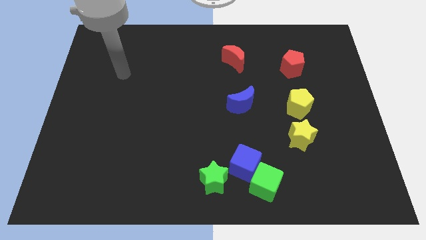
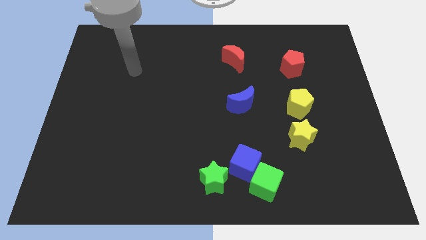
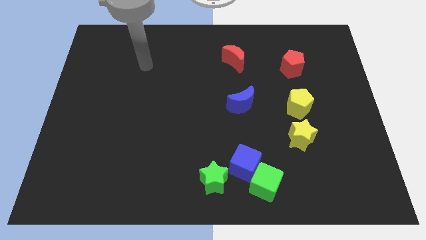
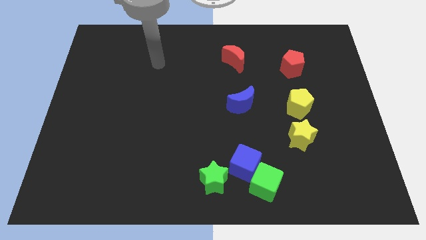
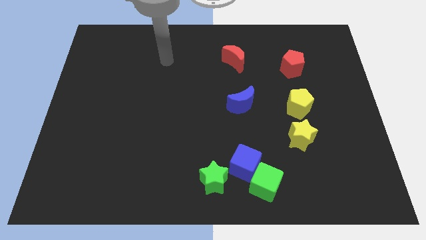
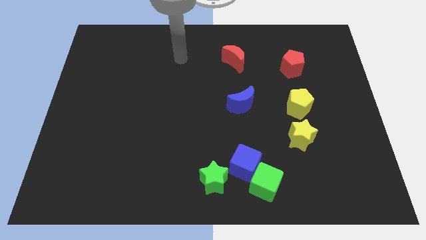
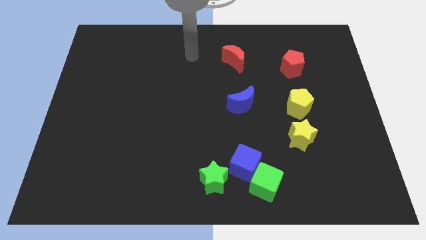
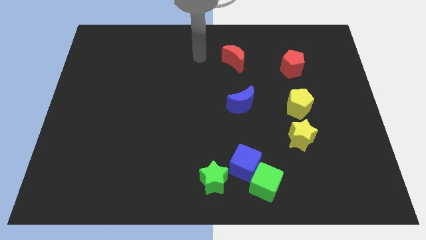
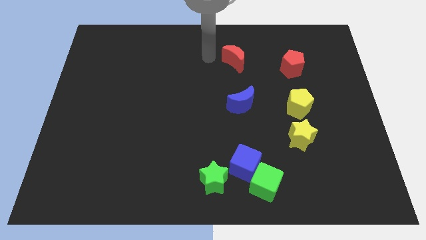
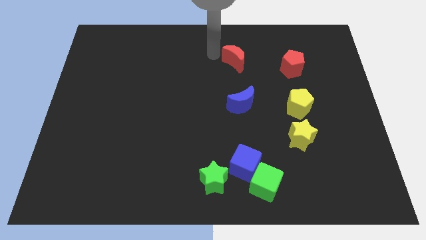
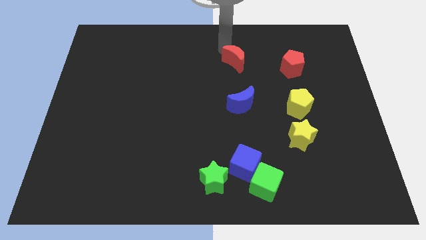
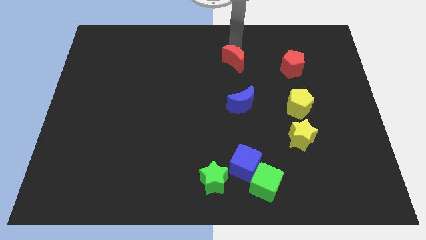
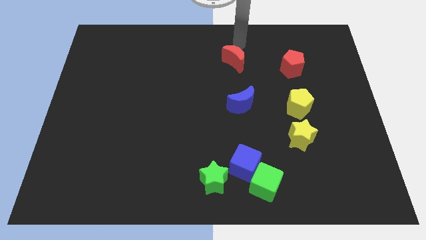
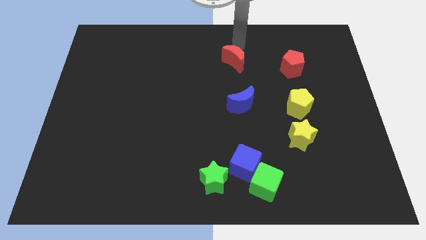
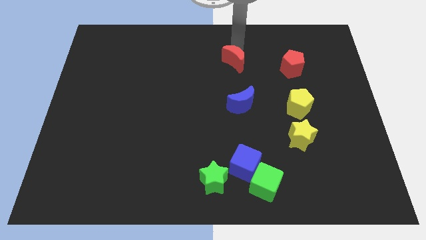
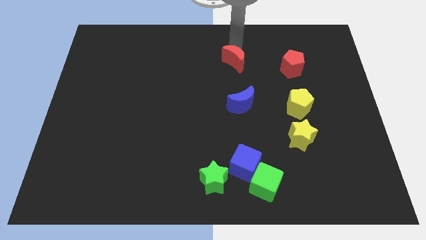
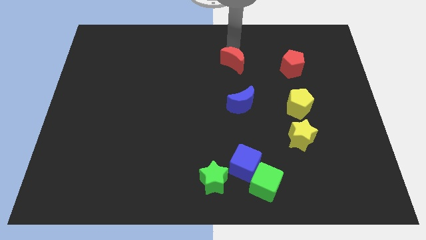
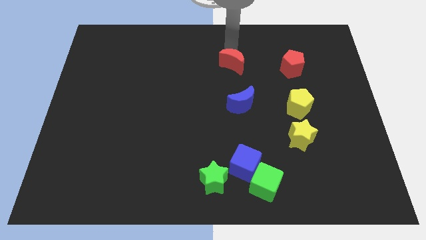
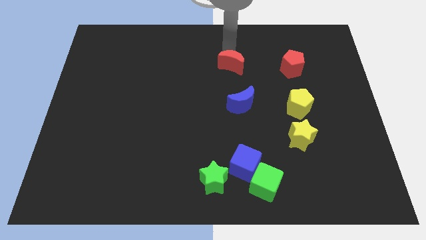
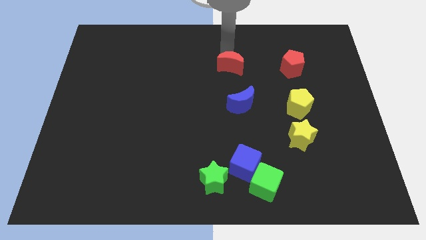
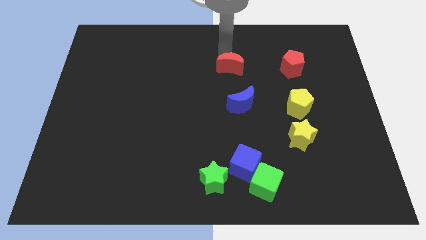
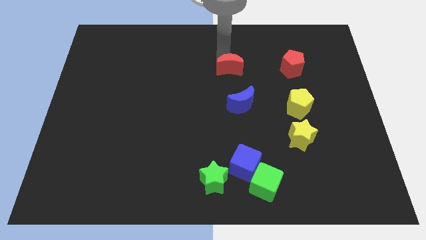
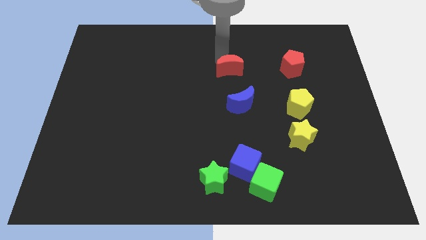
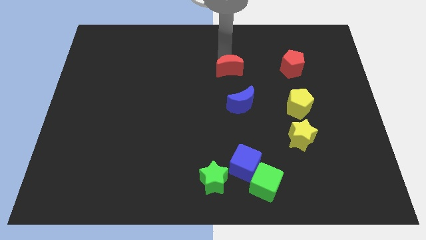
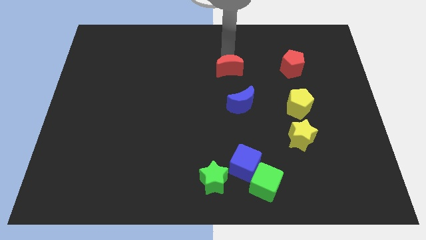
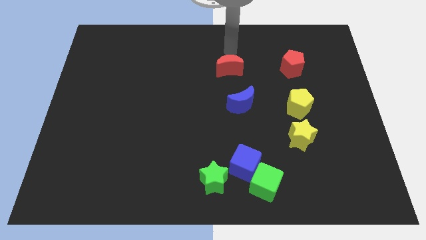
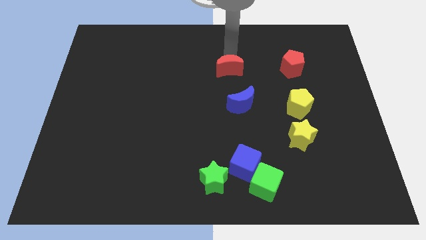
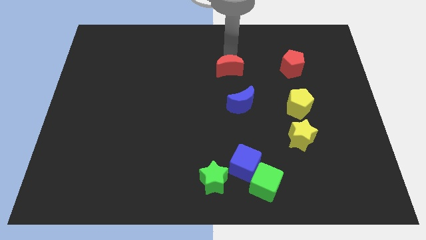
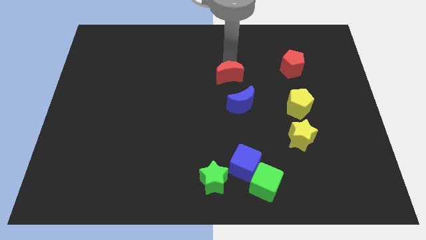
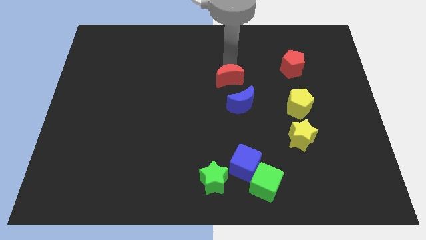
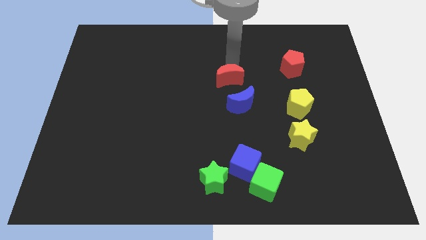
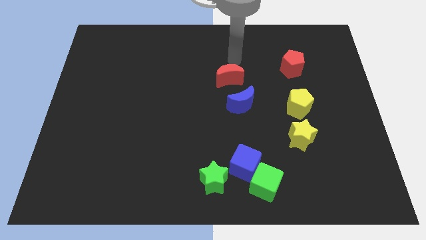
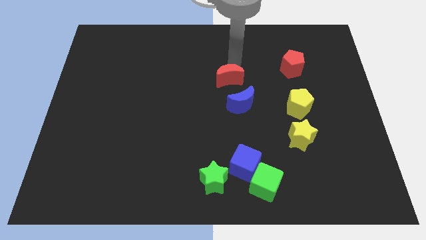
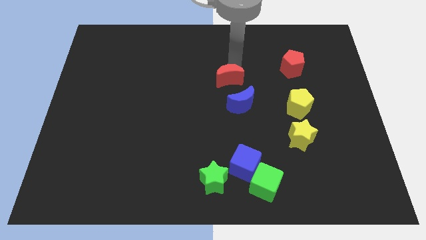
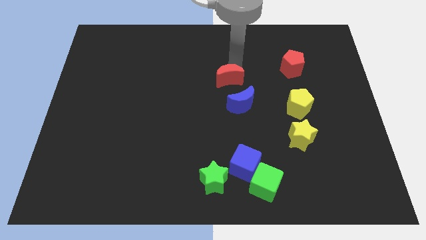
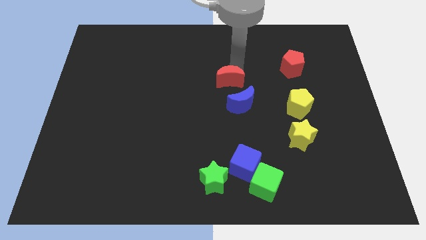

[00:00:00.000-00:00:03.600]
slightly push the red moon downwards

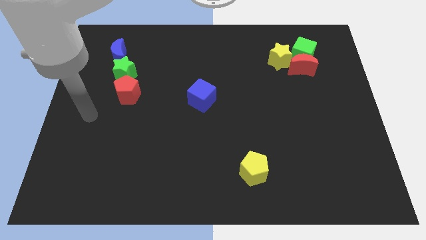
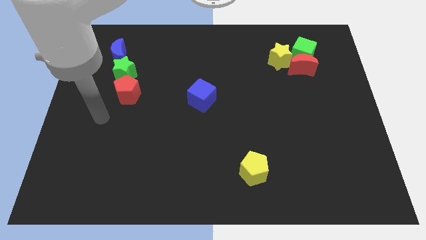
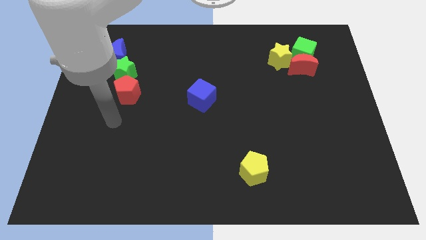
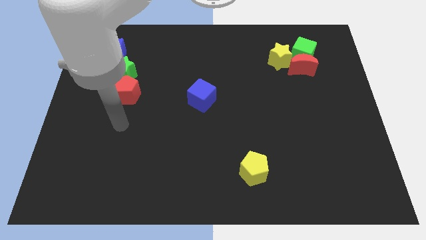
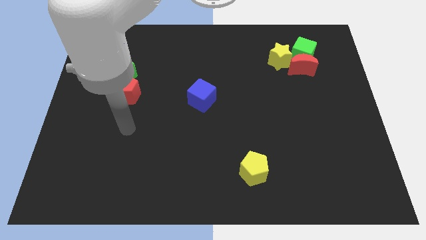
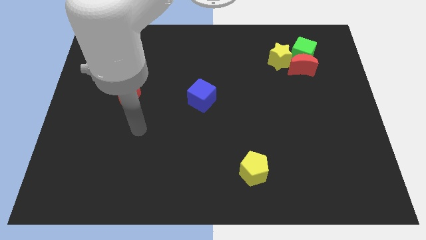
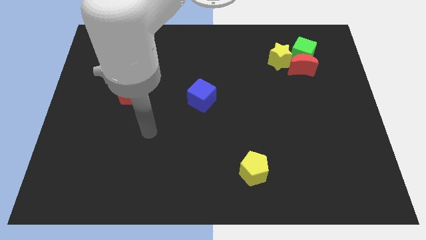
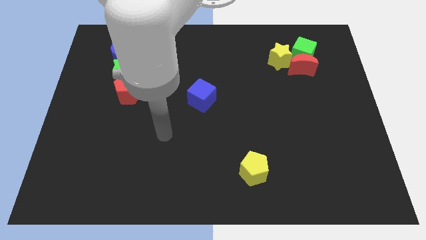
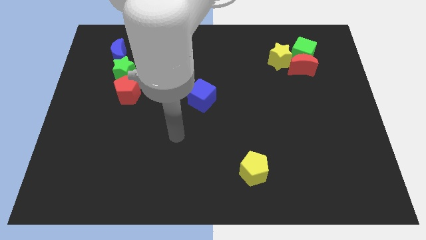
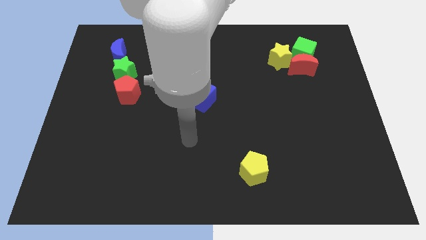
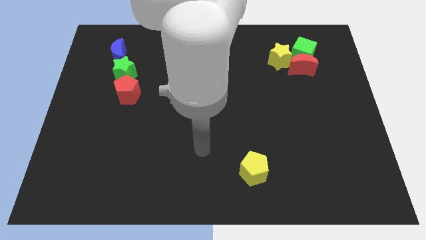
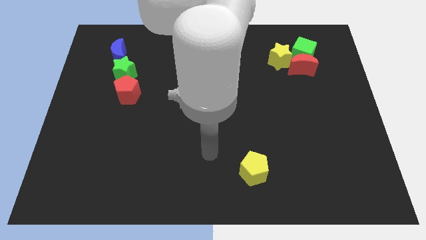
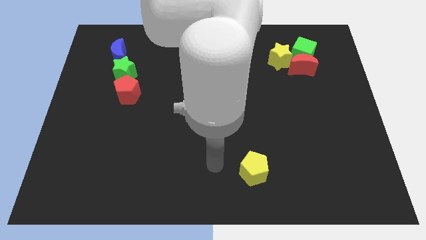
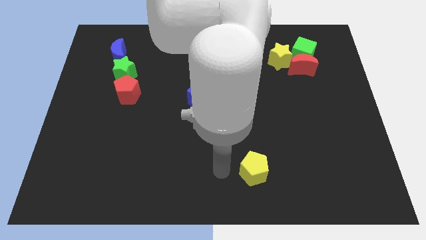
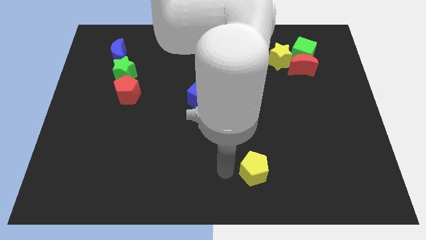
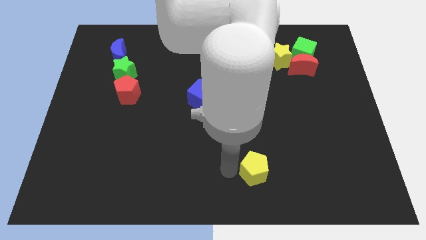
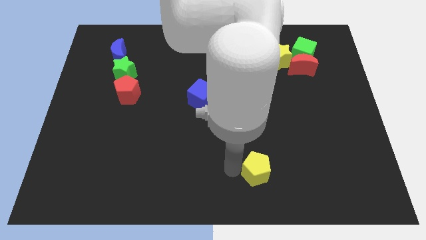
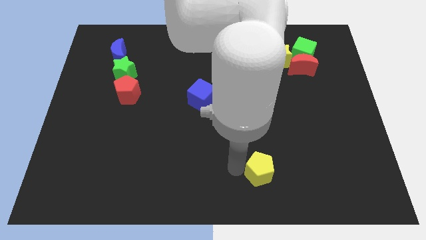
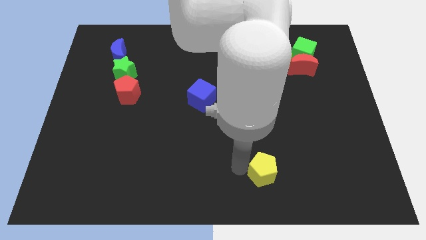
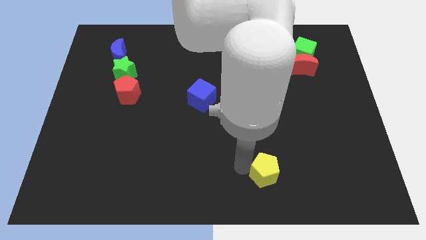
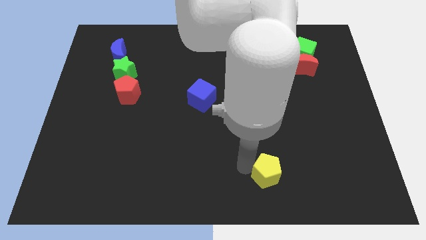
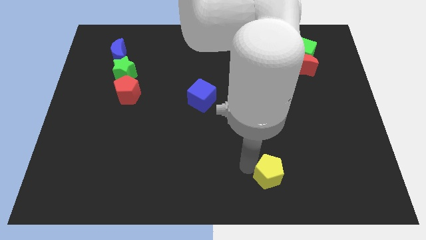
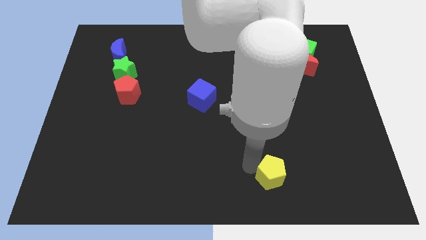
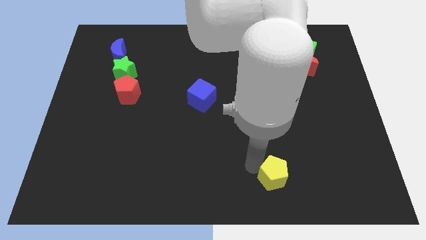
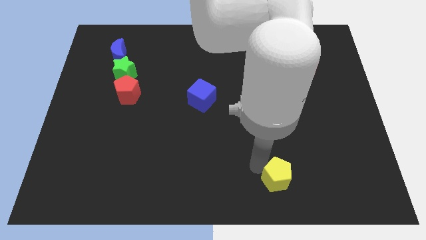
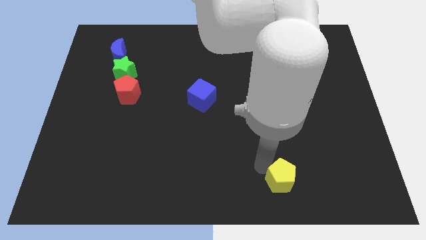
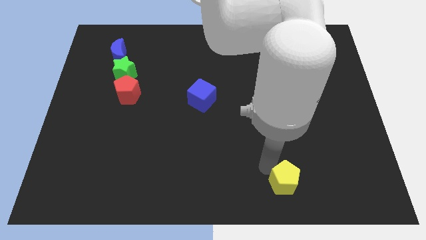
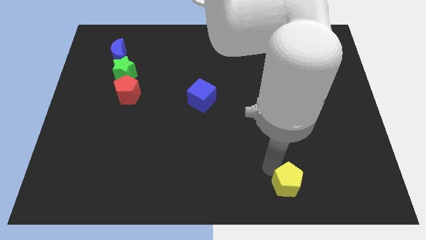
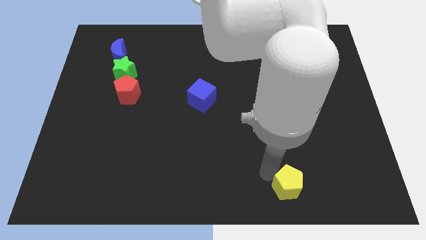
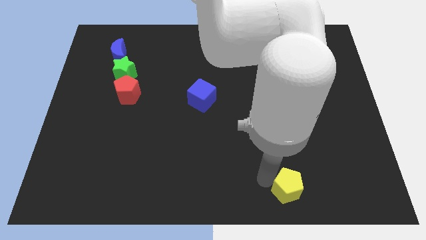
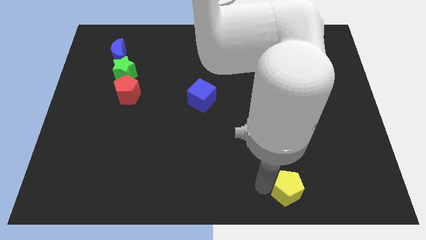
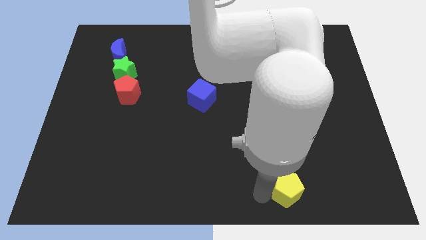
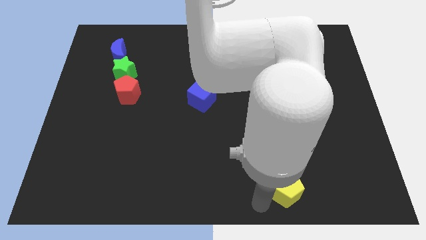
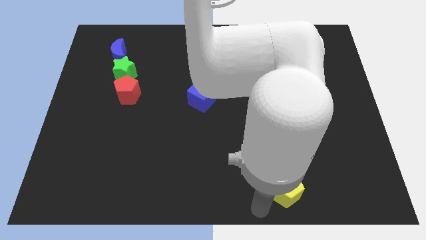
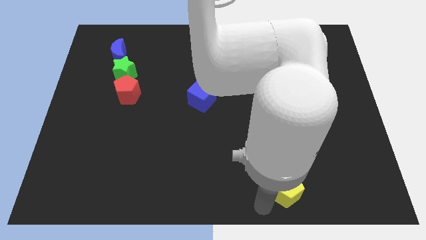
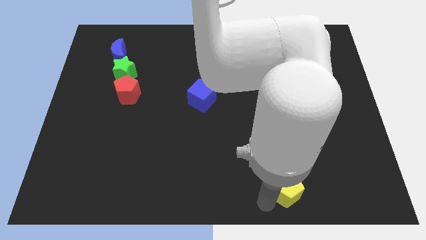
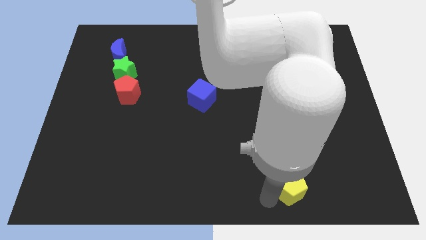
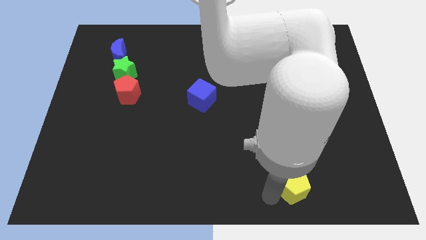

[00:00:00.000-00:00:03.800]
push the yellow pentagon right somewhat

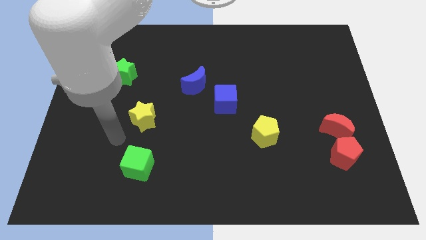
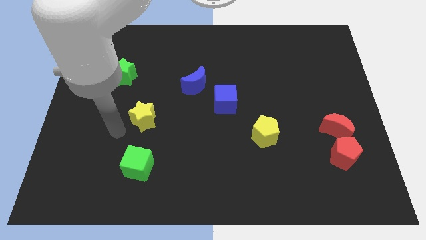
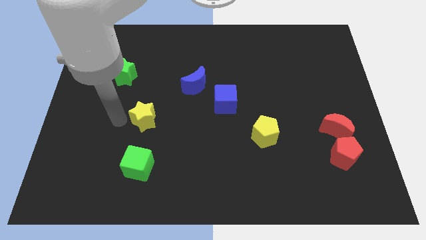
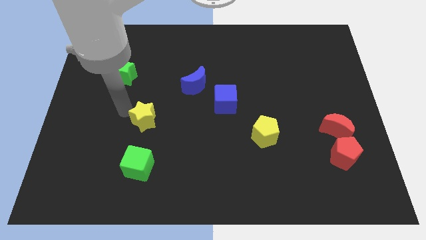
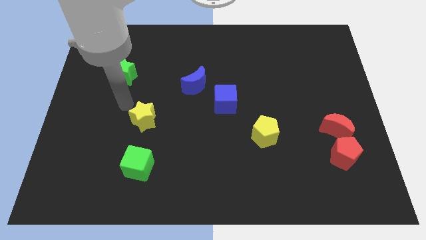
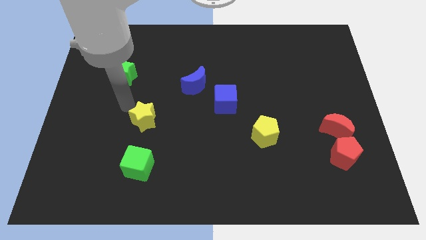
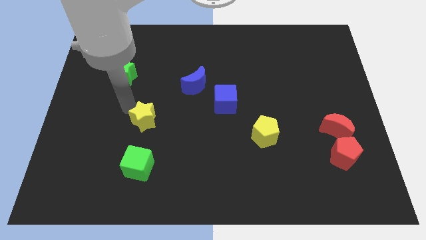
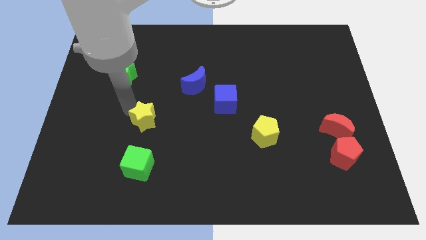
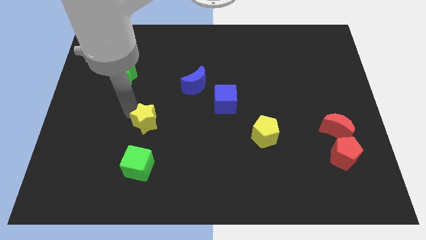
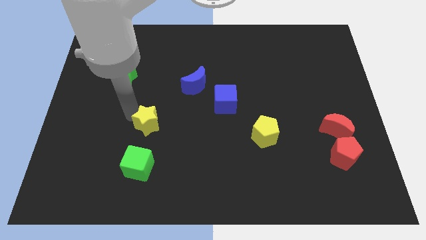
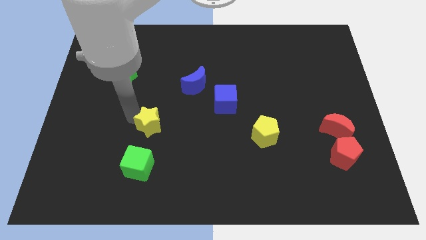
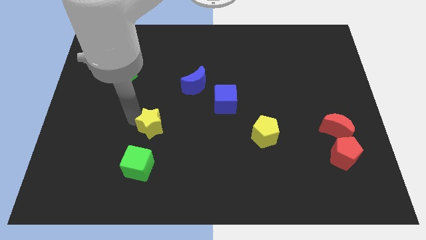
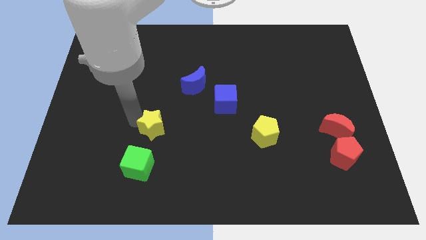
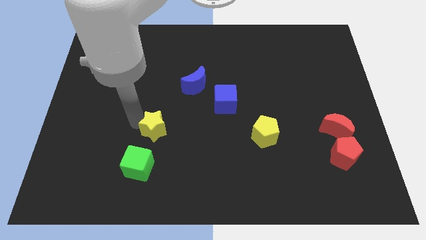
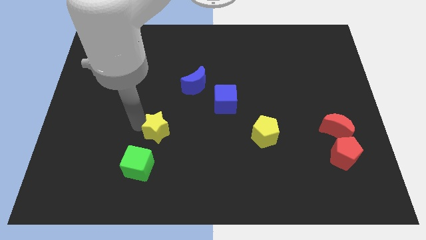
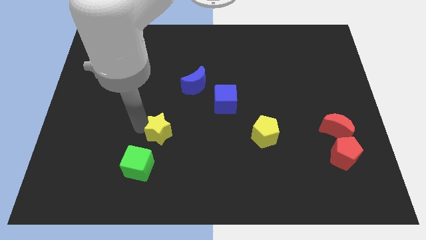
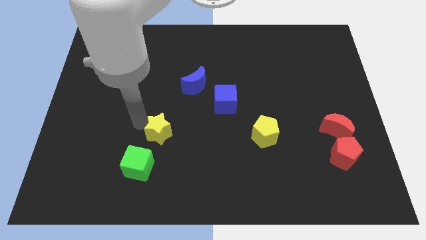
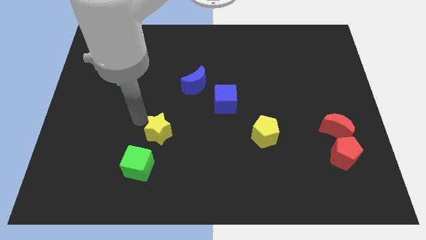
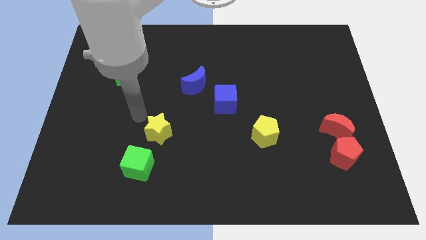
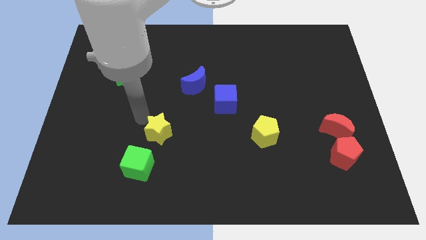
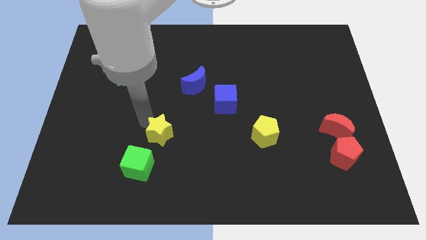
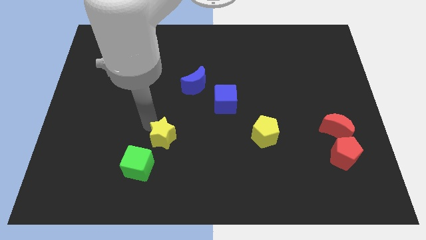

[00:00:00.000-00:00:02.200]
push the yellow star downwards and right slightly
